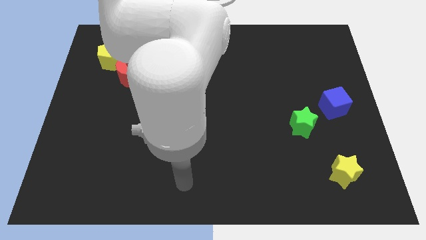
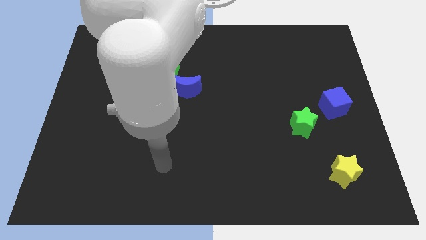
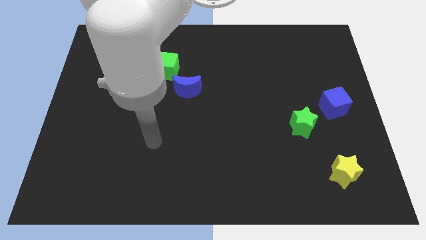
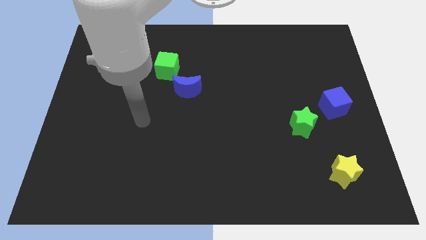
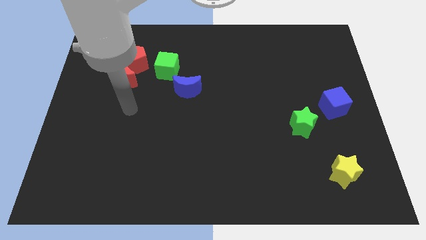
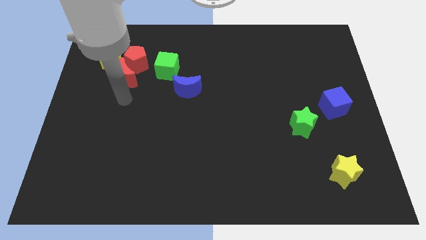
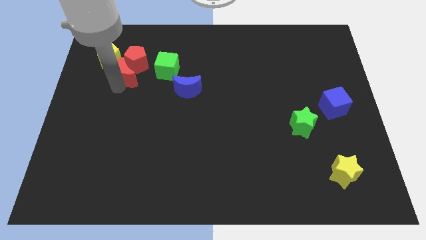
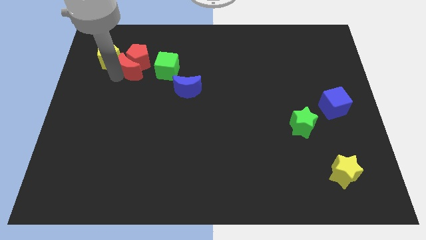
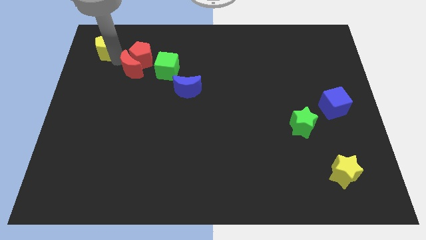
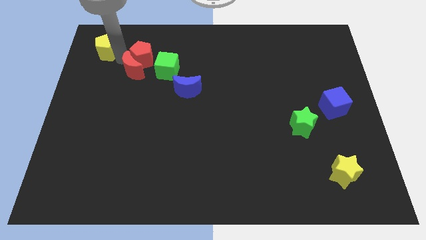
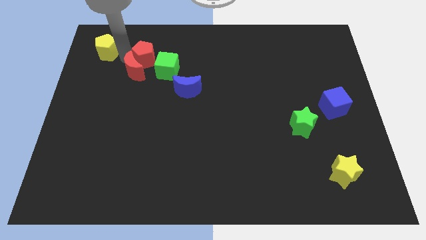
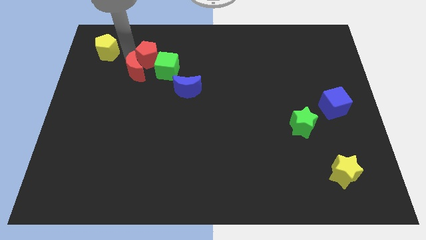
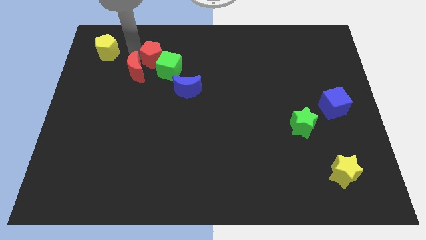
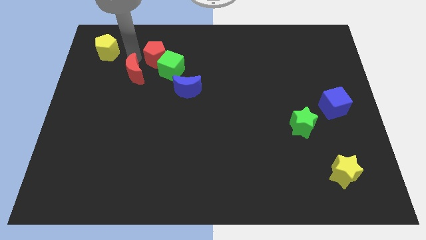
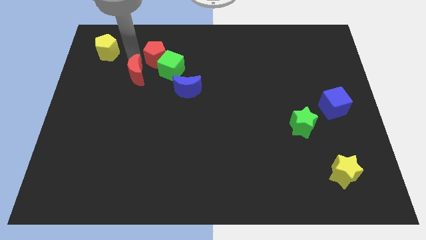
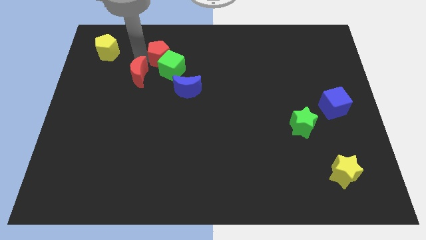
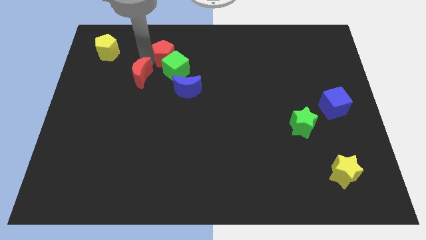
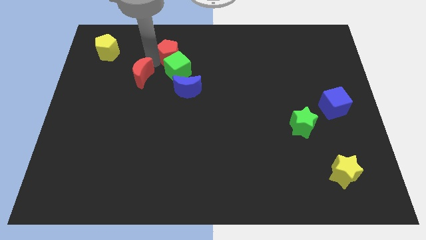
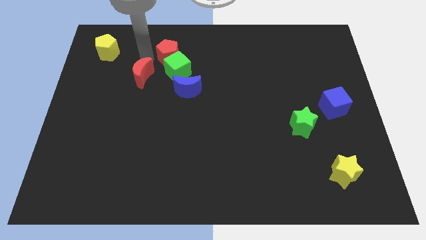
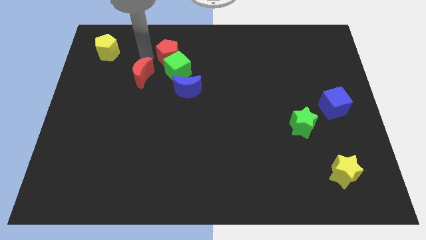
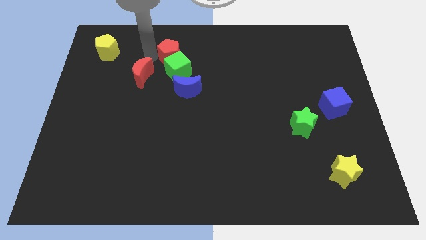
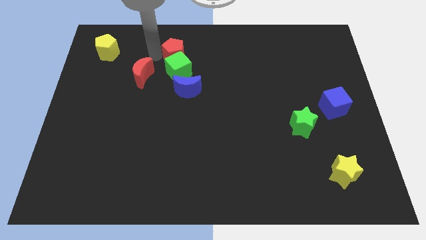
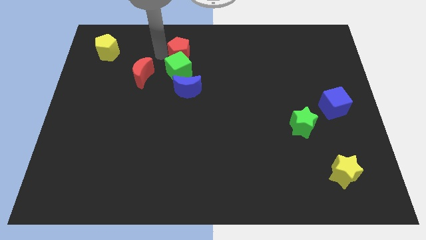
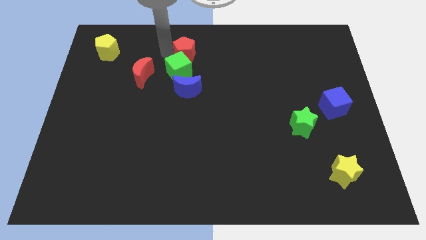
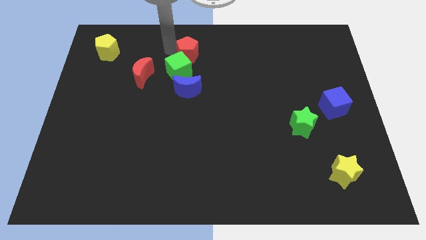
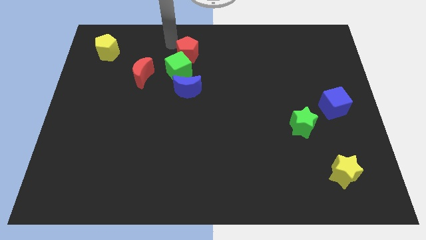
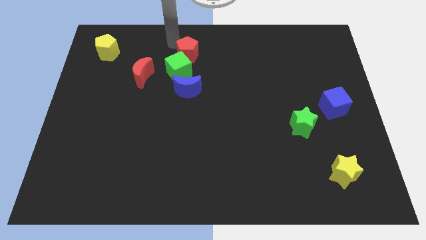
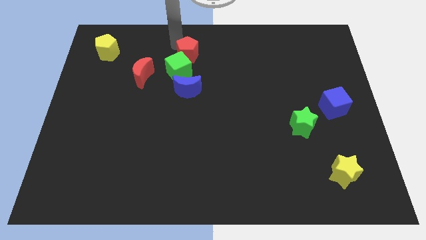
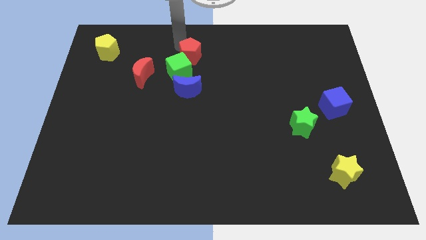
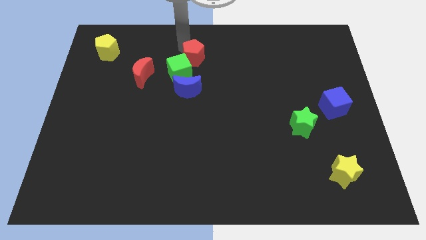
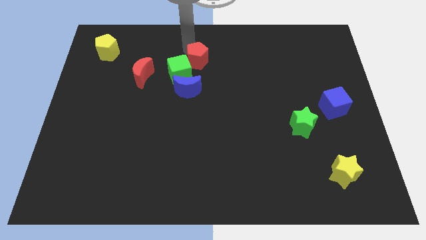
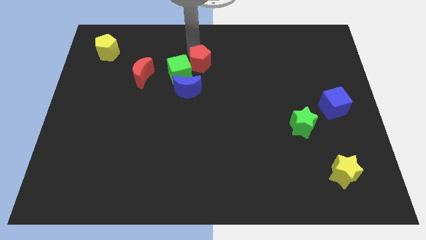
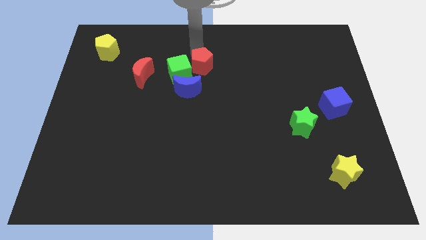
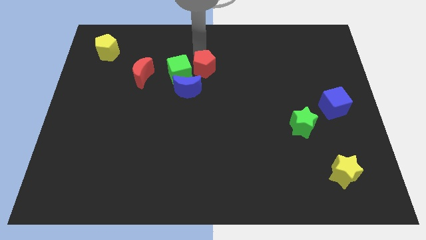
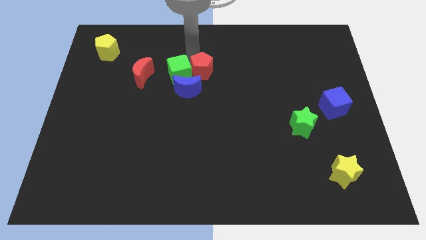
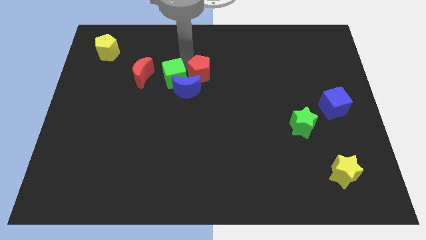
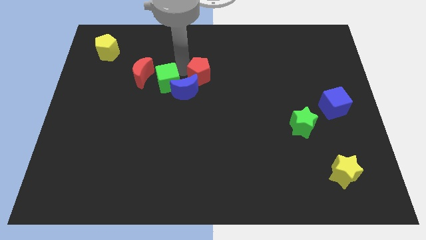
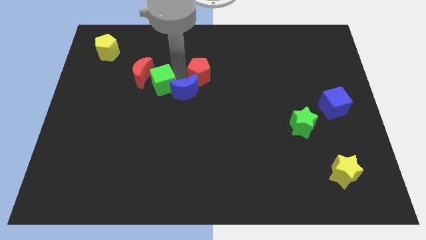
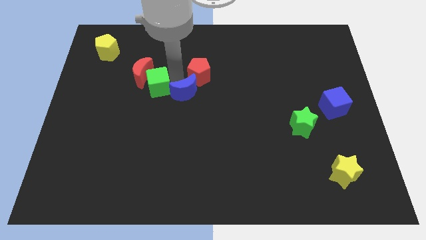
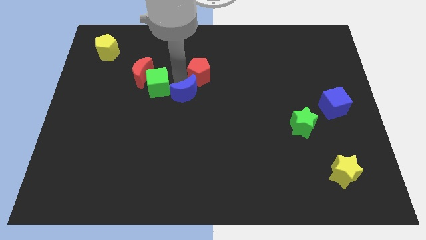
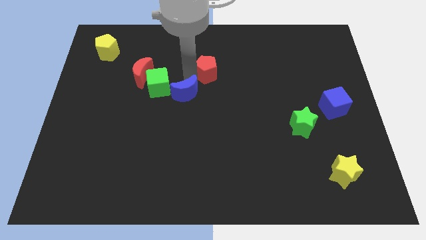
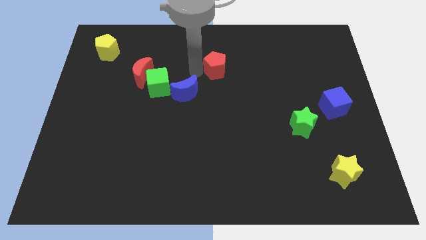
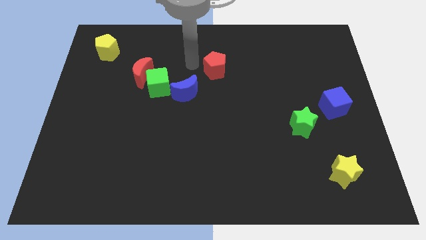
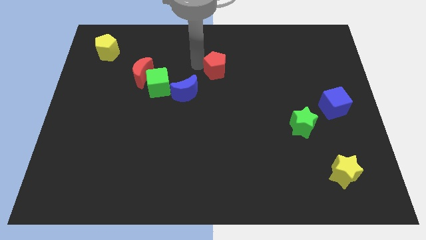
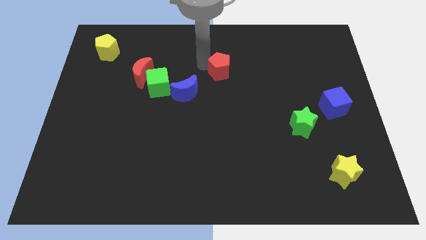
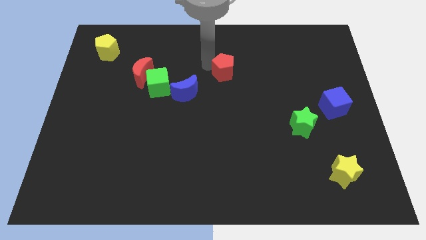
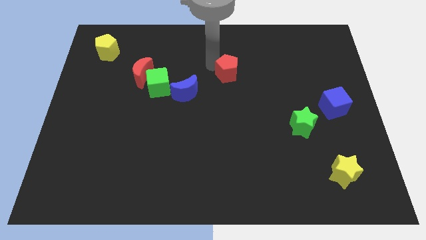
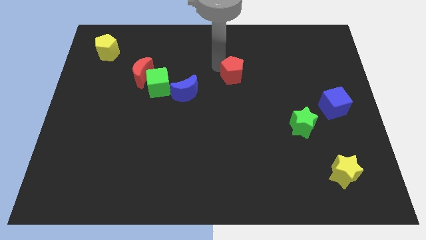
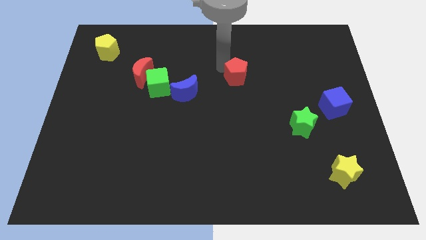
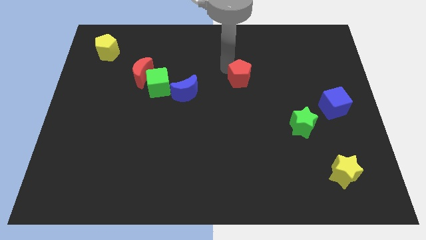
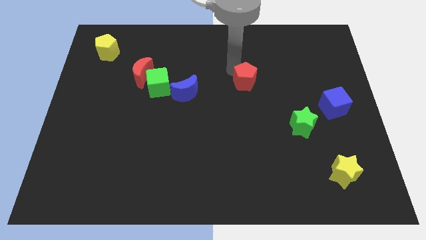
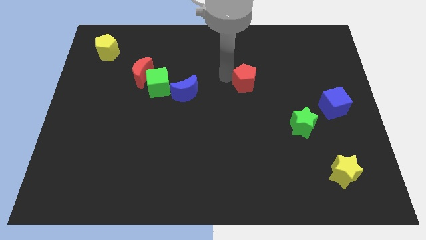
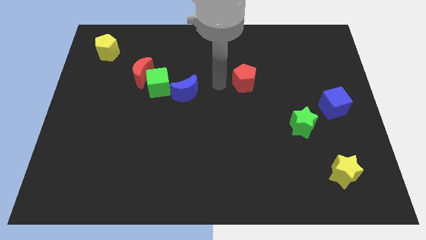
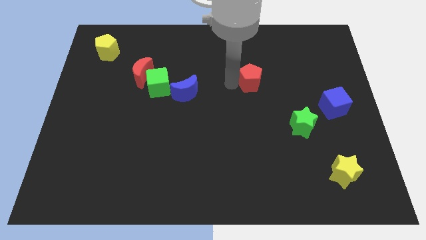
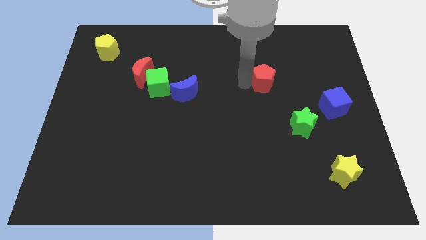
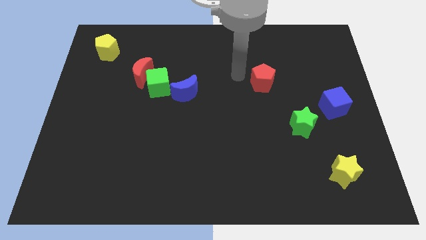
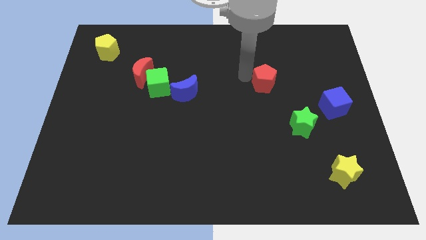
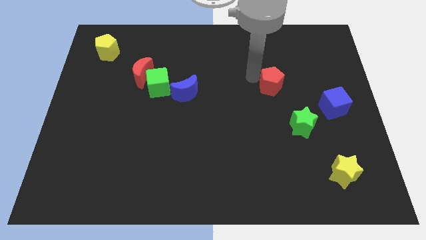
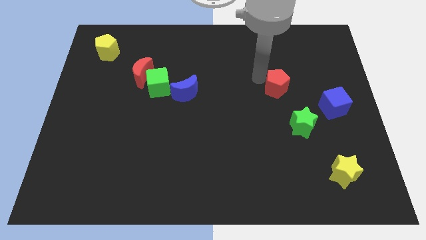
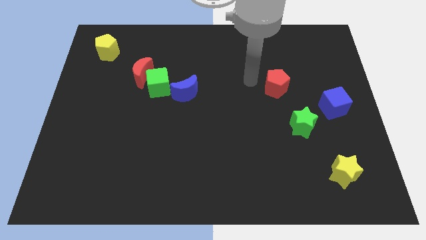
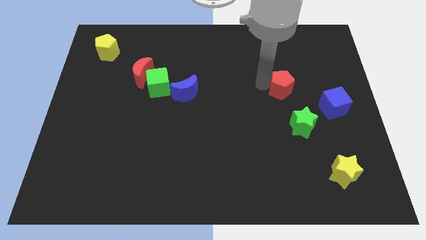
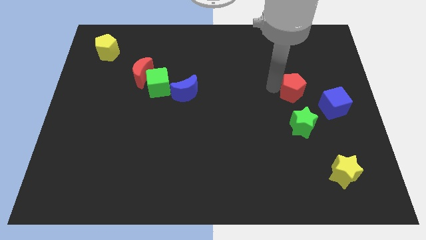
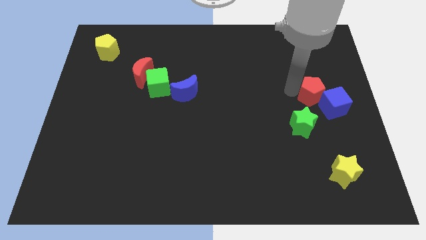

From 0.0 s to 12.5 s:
push the red pentagon next to the blue cube

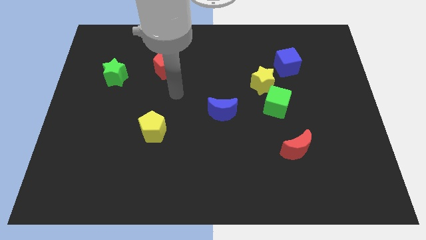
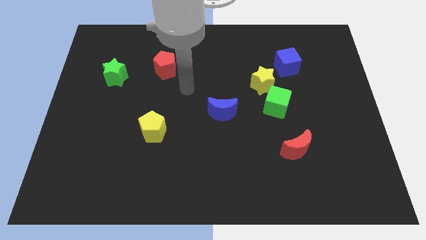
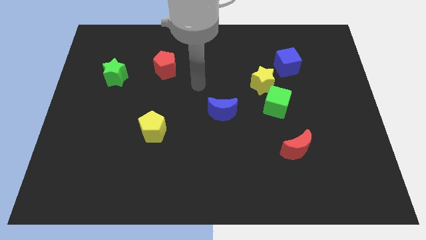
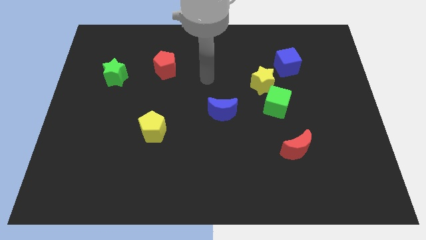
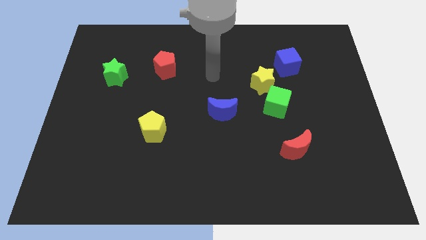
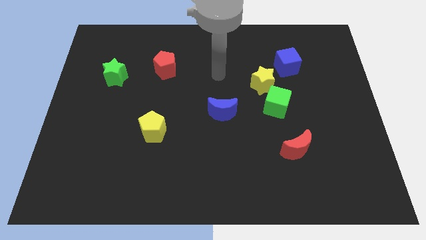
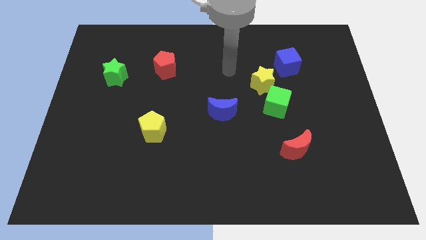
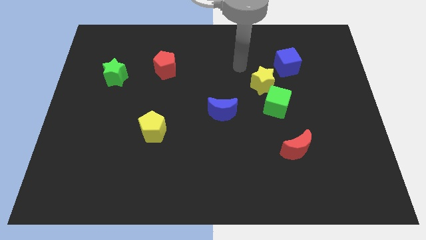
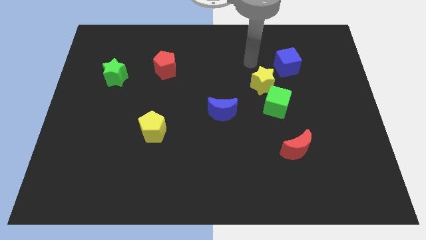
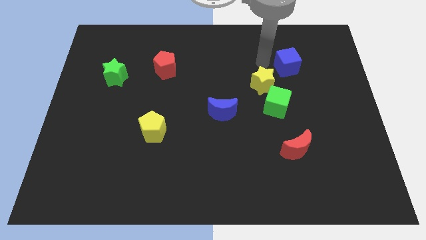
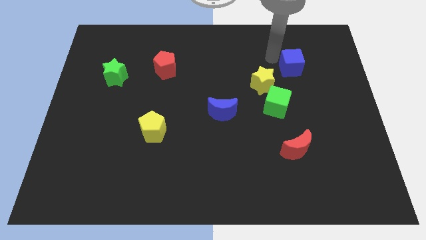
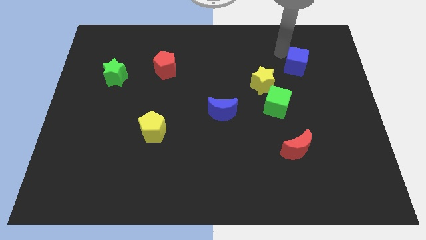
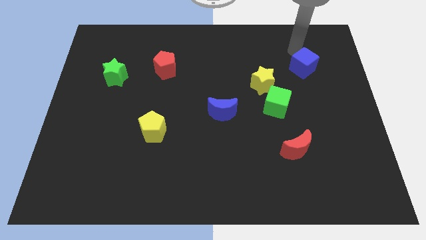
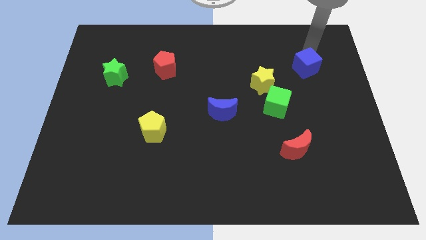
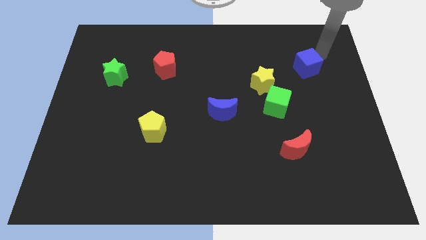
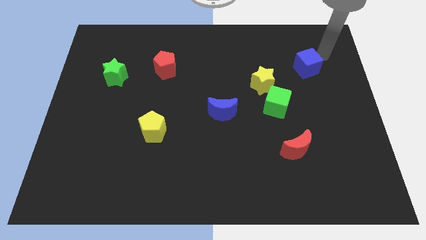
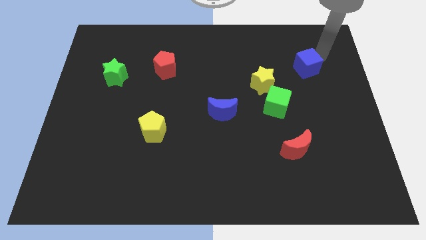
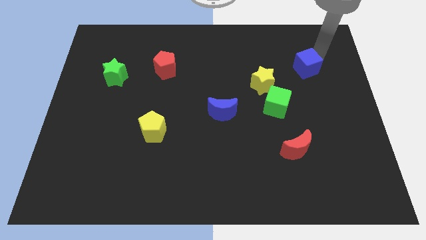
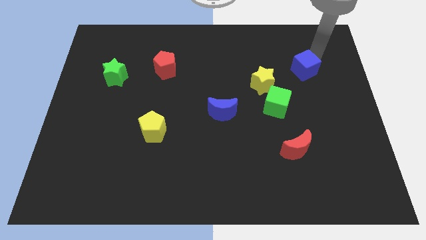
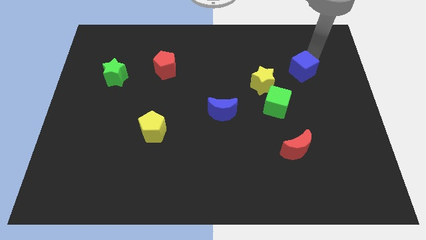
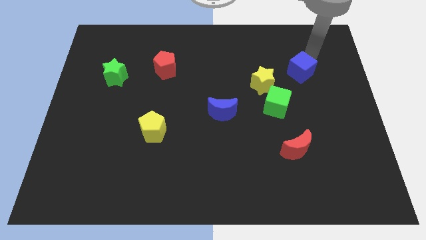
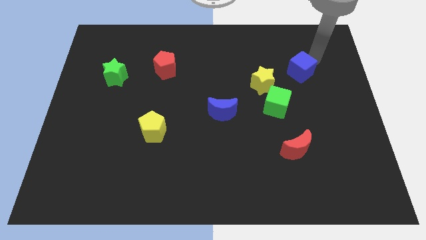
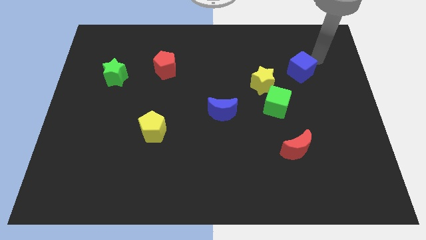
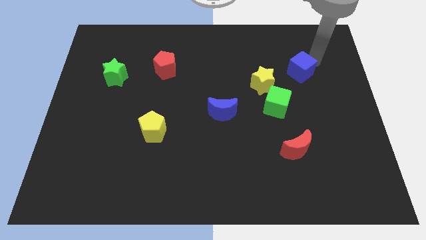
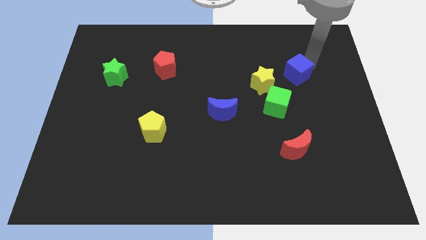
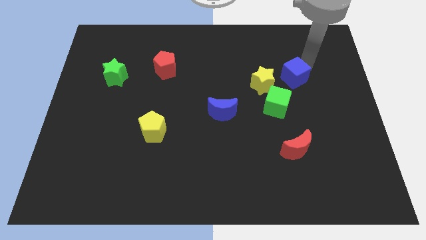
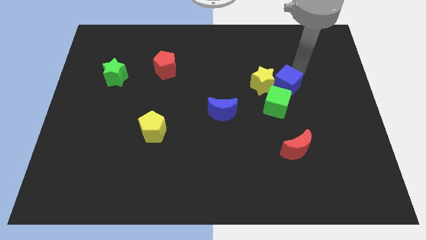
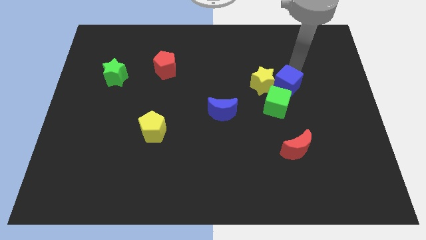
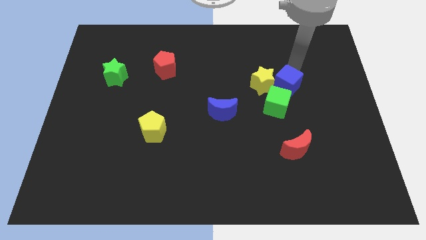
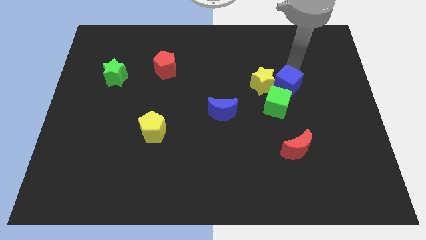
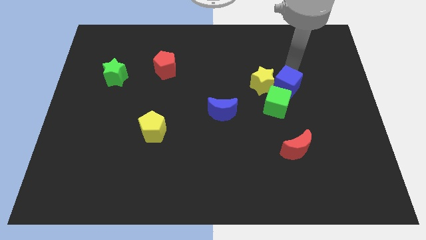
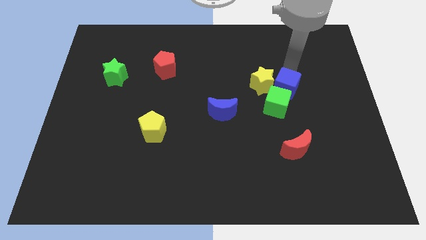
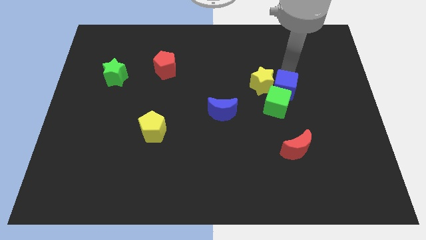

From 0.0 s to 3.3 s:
move the blue cube to the green cube
